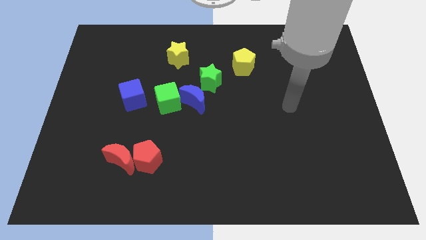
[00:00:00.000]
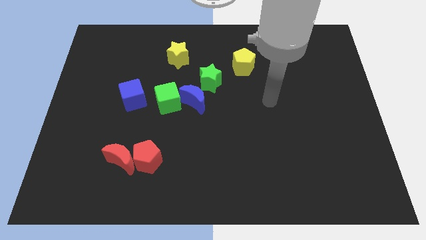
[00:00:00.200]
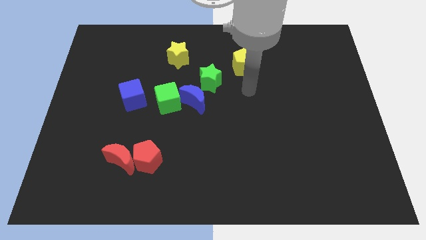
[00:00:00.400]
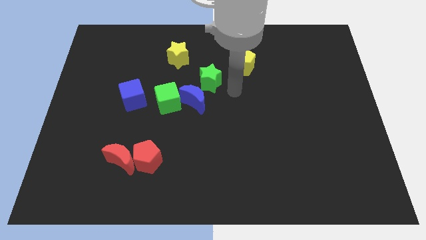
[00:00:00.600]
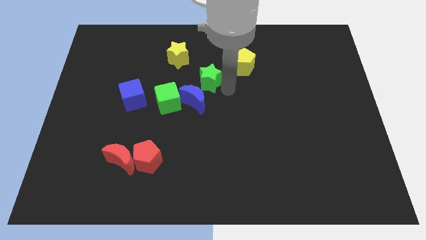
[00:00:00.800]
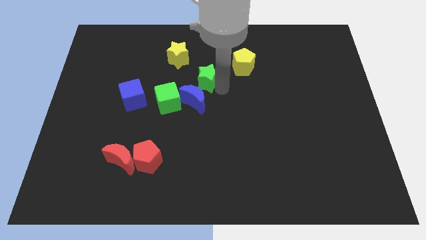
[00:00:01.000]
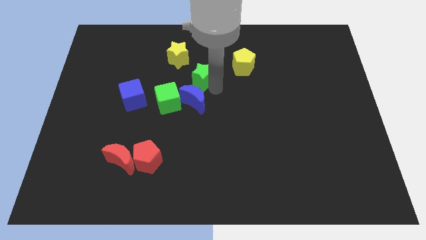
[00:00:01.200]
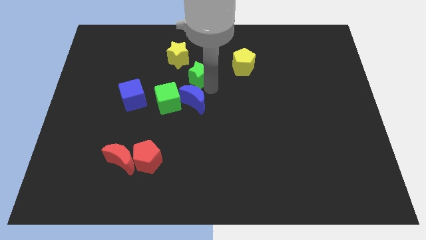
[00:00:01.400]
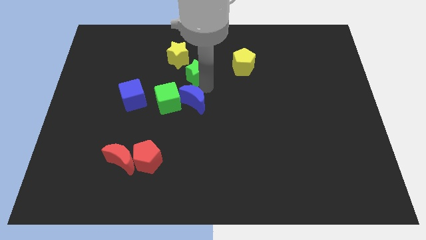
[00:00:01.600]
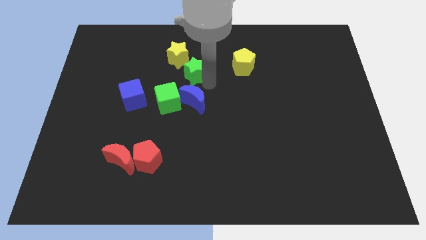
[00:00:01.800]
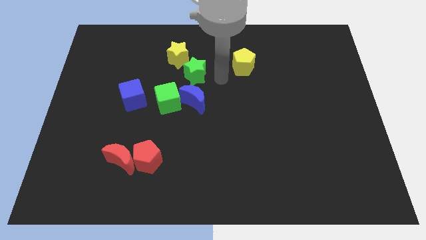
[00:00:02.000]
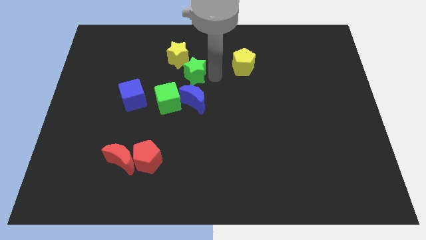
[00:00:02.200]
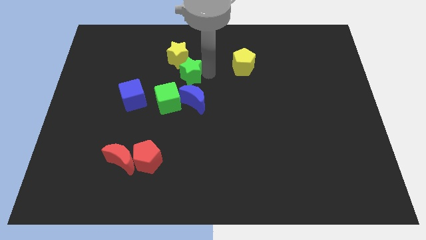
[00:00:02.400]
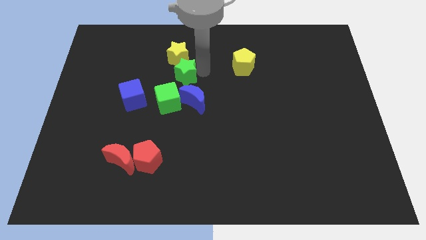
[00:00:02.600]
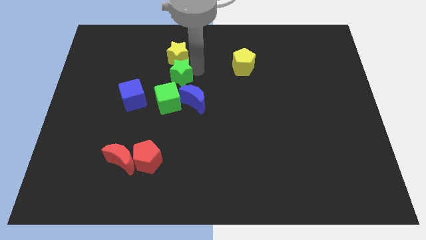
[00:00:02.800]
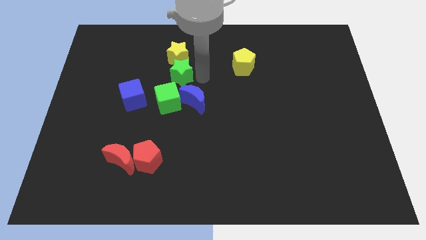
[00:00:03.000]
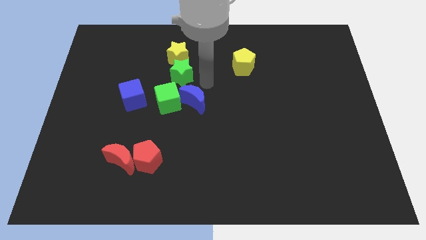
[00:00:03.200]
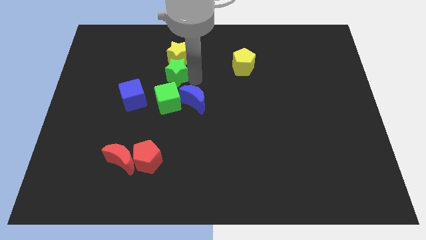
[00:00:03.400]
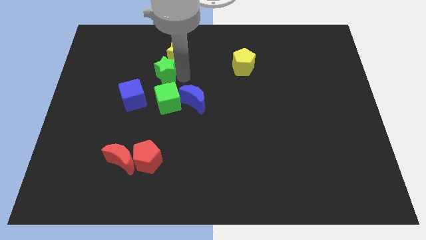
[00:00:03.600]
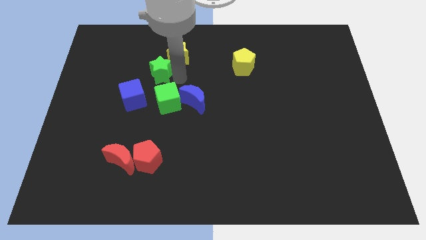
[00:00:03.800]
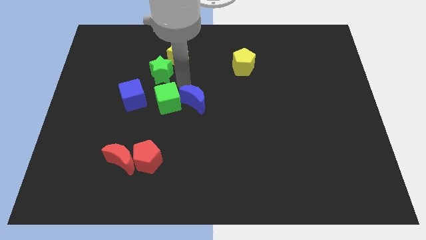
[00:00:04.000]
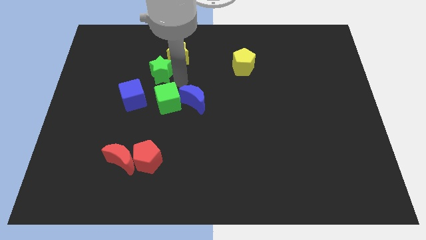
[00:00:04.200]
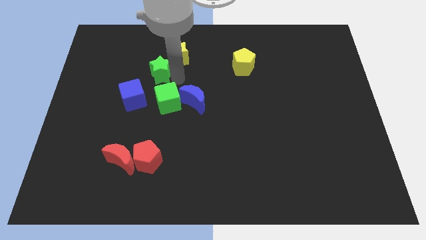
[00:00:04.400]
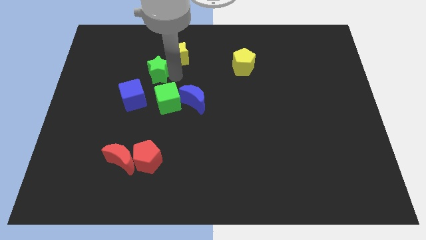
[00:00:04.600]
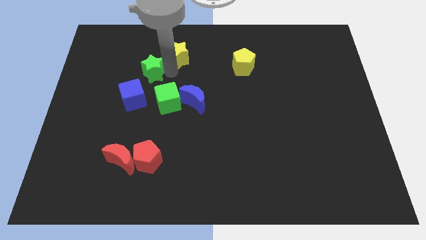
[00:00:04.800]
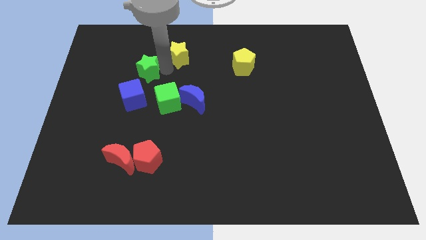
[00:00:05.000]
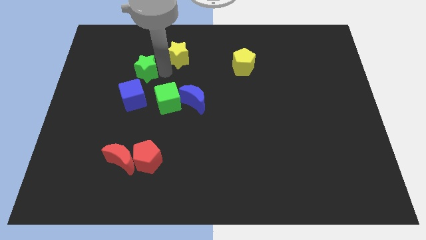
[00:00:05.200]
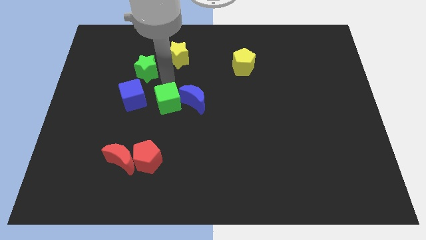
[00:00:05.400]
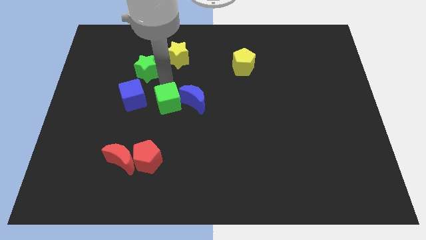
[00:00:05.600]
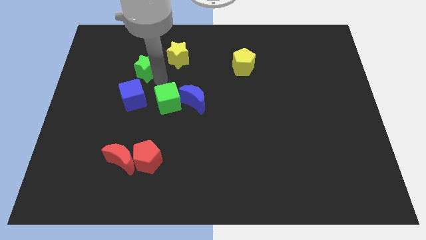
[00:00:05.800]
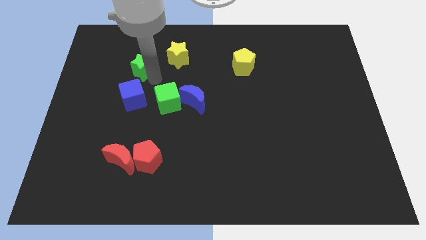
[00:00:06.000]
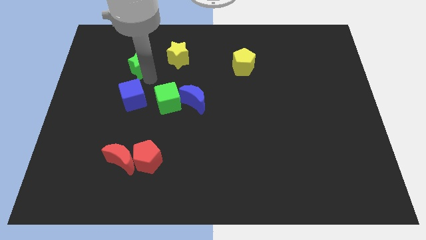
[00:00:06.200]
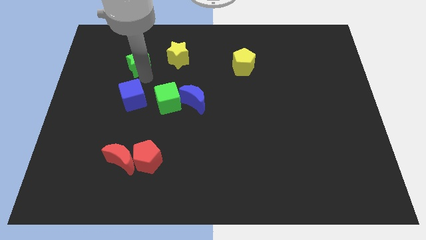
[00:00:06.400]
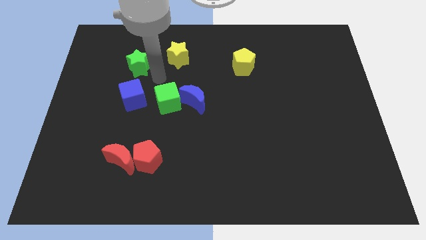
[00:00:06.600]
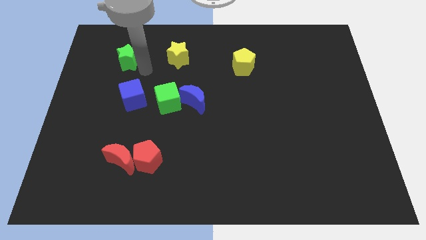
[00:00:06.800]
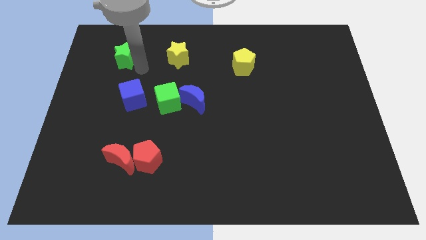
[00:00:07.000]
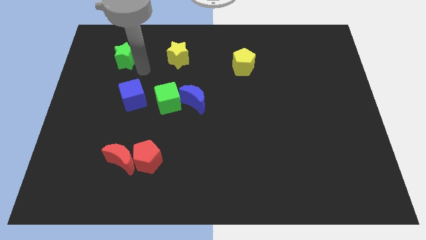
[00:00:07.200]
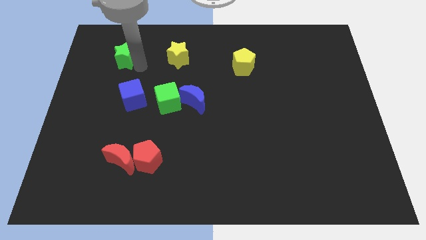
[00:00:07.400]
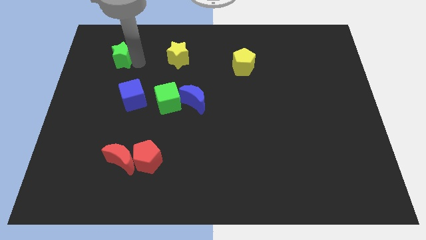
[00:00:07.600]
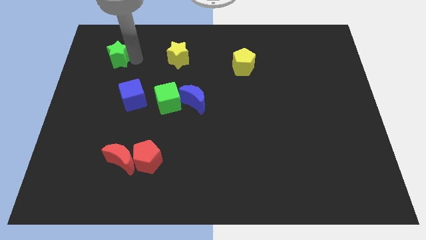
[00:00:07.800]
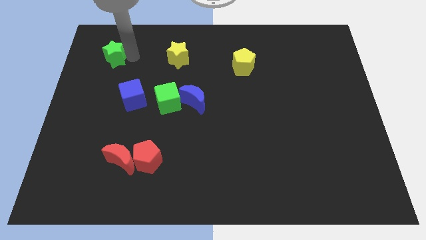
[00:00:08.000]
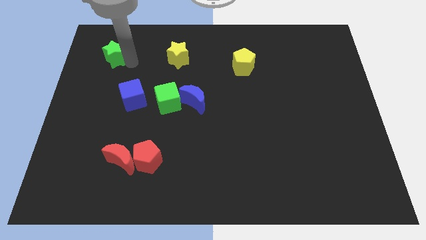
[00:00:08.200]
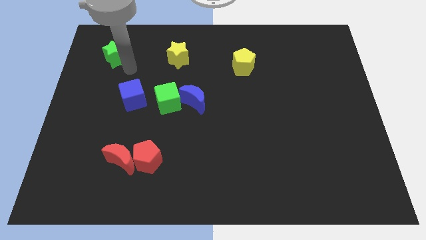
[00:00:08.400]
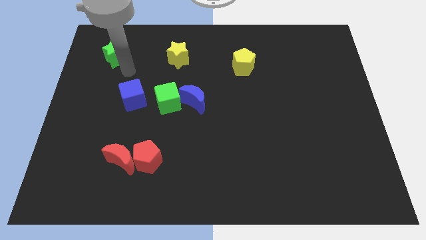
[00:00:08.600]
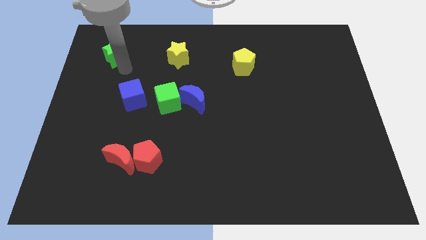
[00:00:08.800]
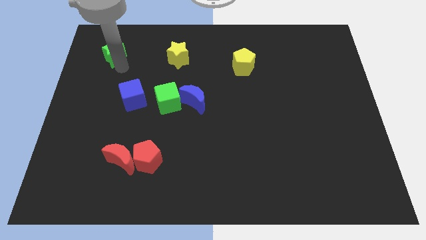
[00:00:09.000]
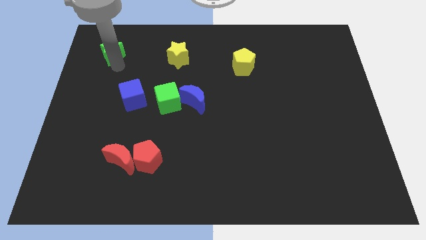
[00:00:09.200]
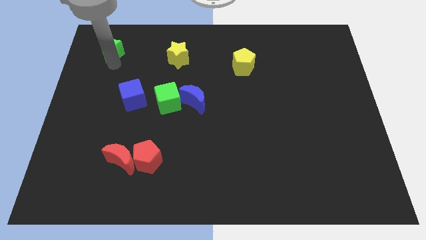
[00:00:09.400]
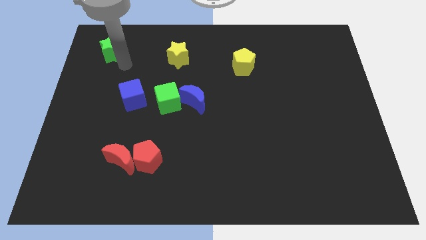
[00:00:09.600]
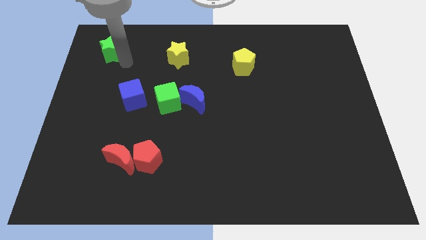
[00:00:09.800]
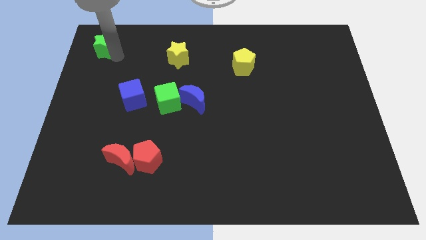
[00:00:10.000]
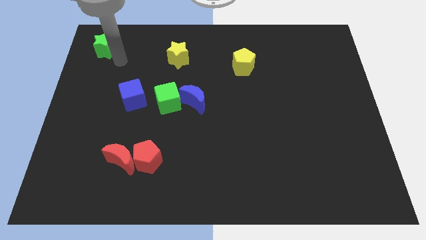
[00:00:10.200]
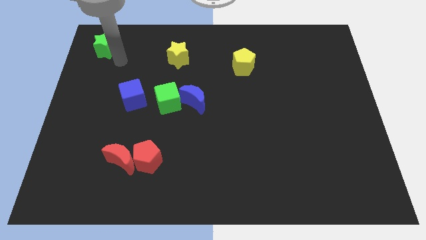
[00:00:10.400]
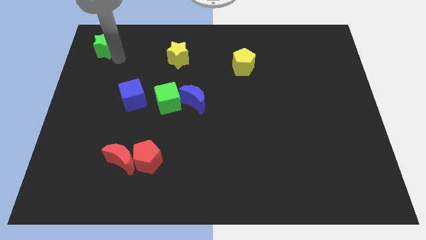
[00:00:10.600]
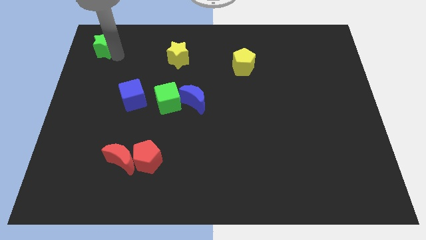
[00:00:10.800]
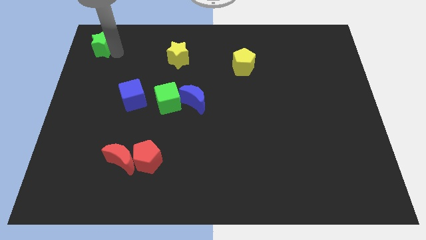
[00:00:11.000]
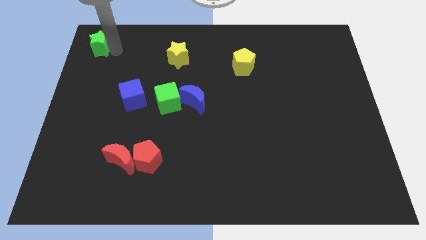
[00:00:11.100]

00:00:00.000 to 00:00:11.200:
move the green star to the upper left corner
